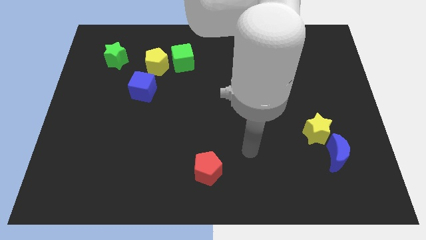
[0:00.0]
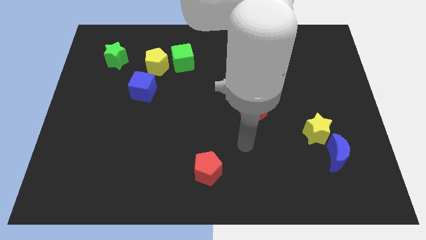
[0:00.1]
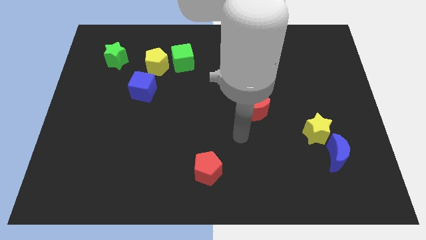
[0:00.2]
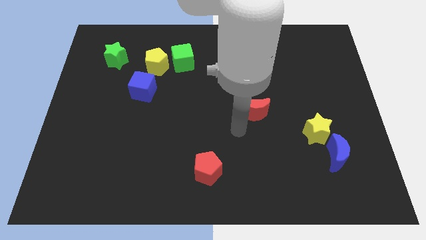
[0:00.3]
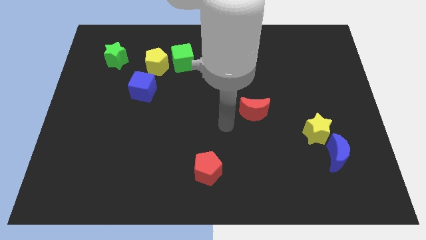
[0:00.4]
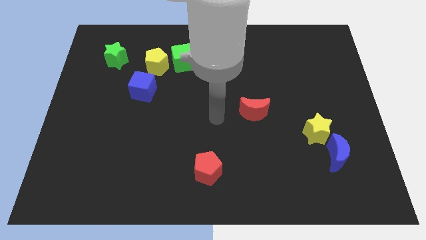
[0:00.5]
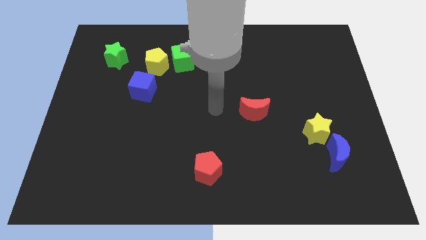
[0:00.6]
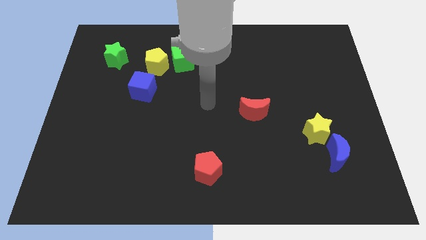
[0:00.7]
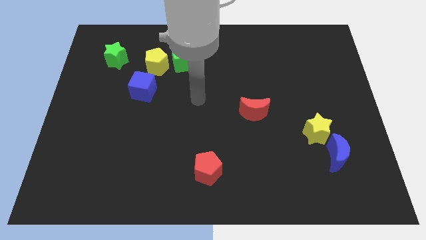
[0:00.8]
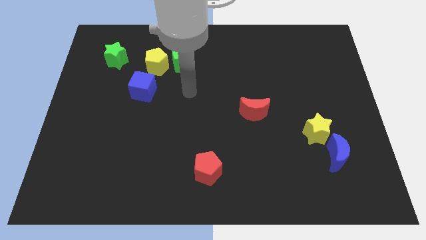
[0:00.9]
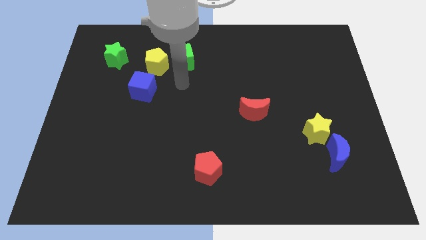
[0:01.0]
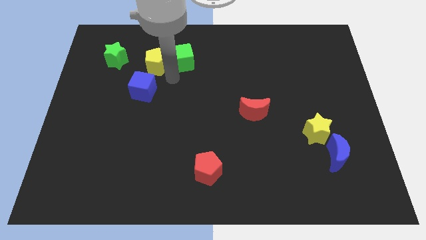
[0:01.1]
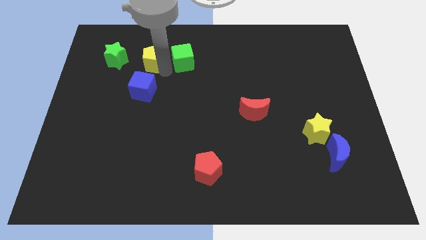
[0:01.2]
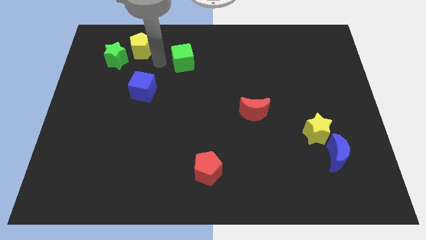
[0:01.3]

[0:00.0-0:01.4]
move the green cube away from the yellow pentagon

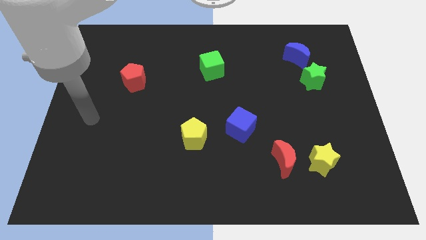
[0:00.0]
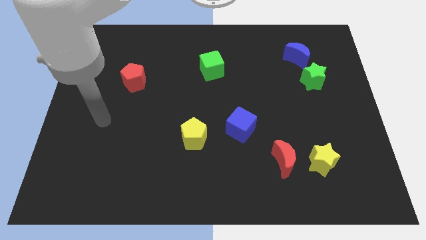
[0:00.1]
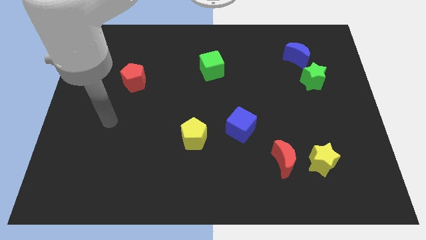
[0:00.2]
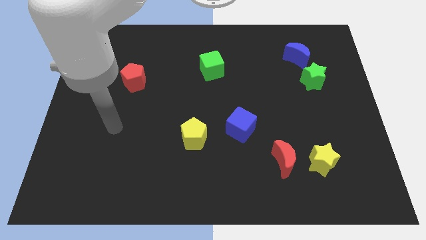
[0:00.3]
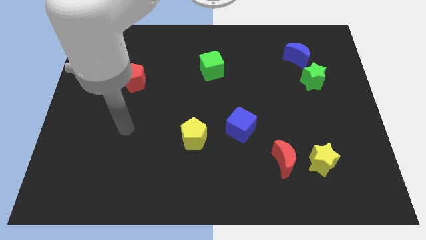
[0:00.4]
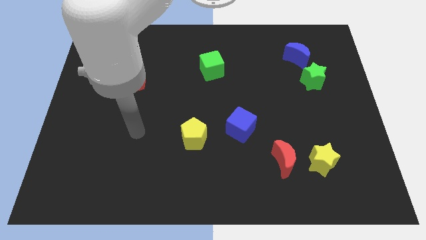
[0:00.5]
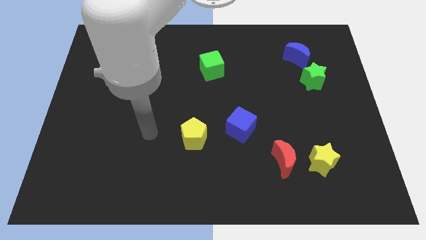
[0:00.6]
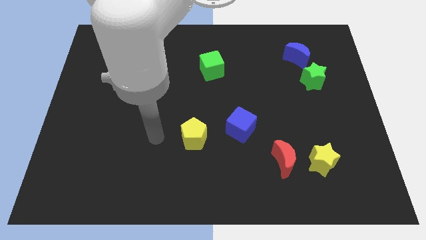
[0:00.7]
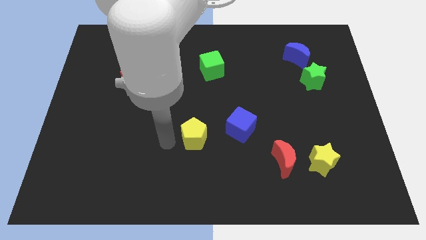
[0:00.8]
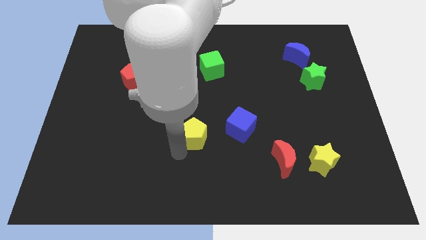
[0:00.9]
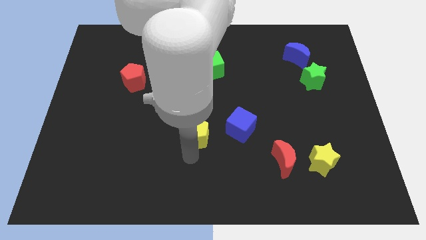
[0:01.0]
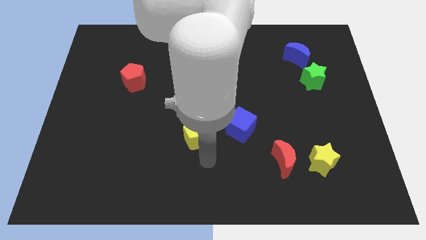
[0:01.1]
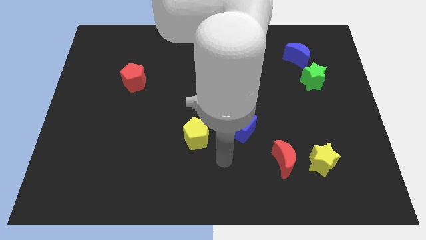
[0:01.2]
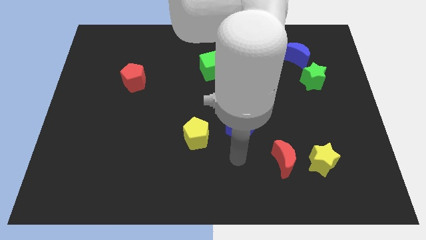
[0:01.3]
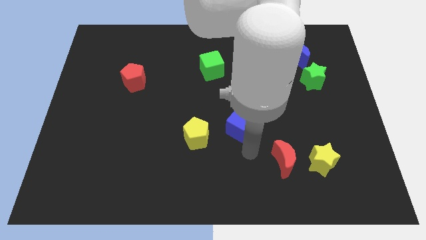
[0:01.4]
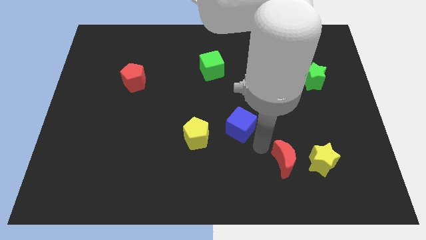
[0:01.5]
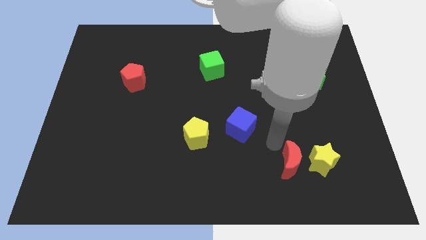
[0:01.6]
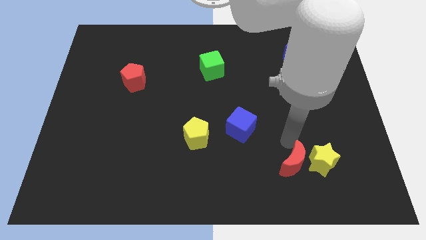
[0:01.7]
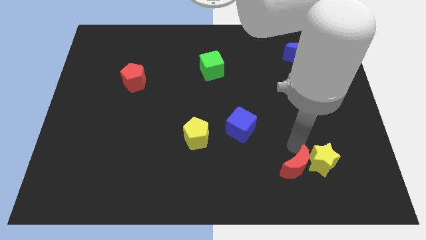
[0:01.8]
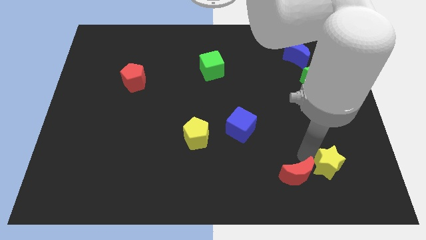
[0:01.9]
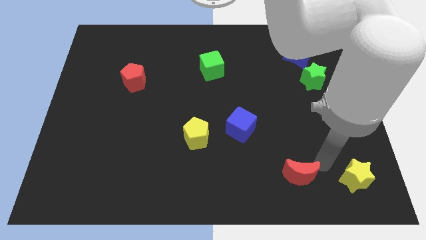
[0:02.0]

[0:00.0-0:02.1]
separate the red moon from the yellow star

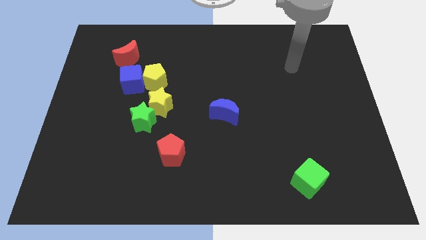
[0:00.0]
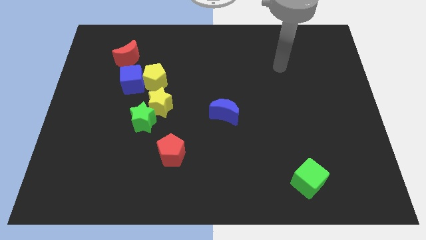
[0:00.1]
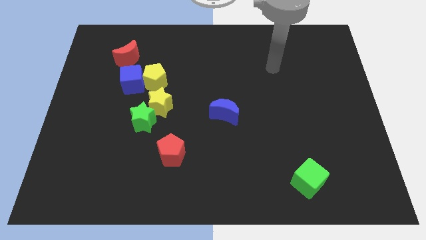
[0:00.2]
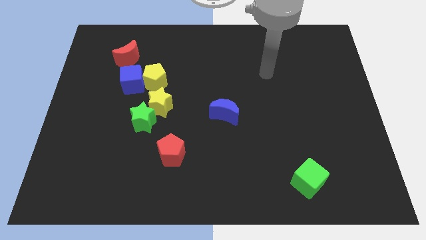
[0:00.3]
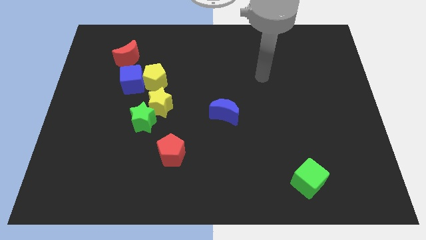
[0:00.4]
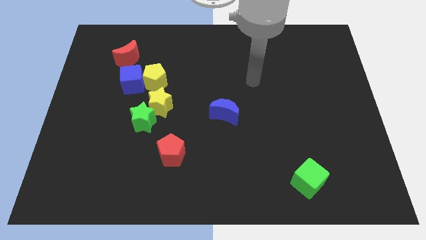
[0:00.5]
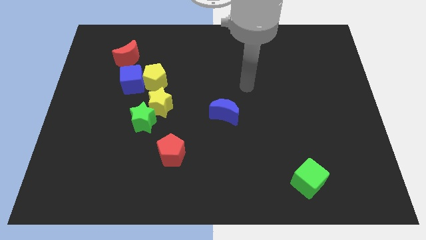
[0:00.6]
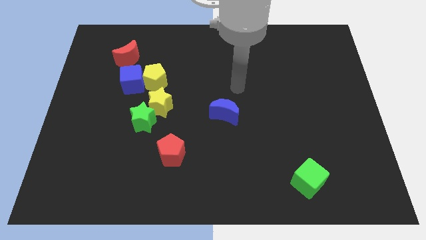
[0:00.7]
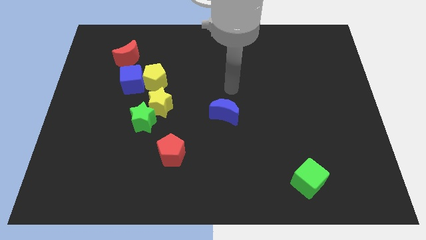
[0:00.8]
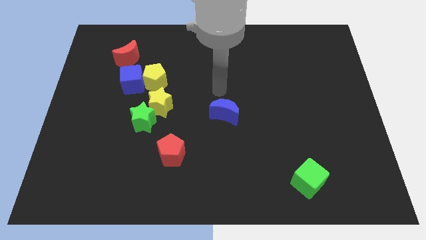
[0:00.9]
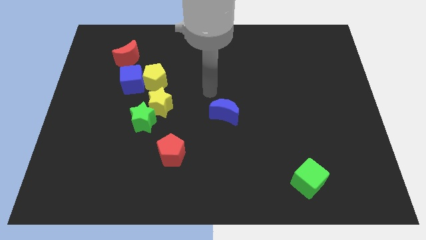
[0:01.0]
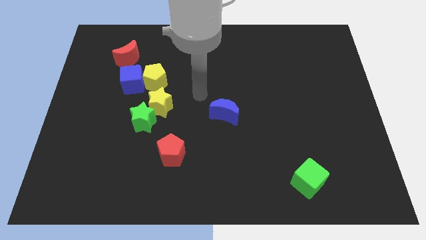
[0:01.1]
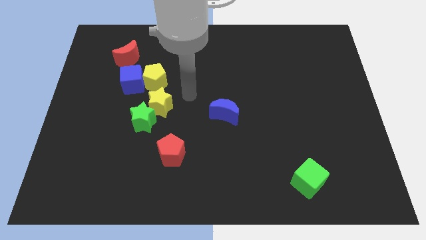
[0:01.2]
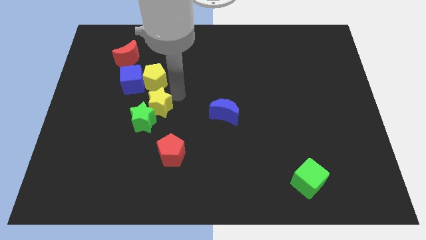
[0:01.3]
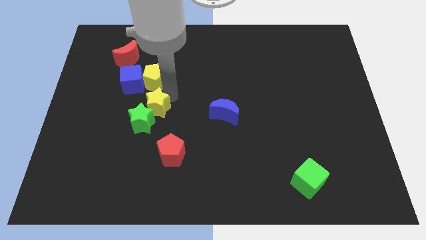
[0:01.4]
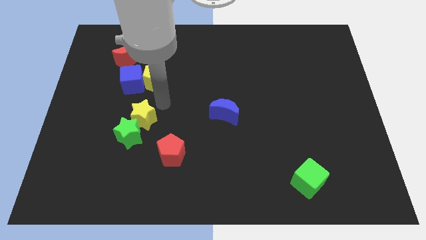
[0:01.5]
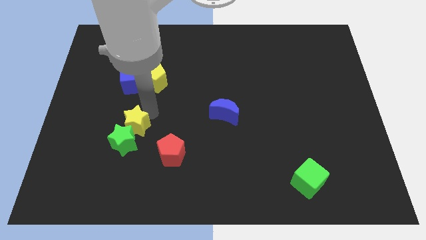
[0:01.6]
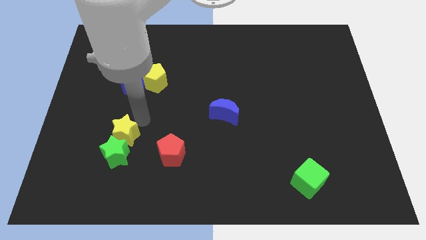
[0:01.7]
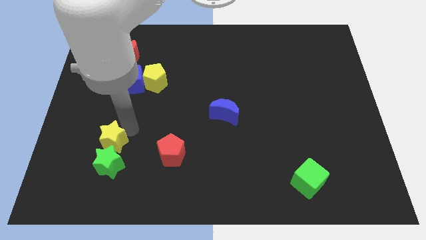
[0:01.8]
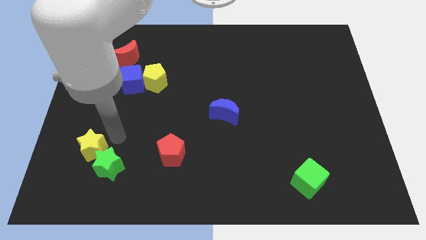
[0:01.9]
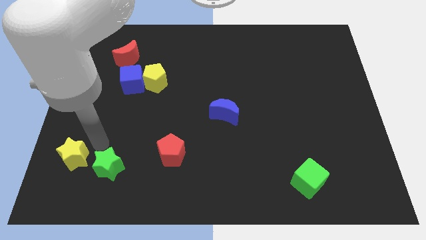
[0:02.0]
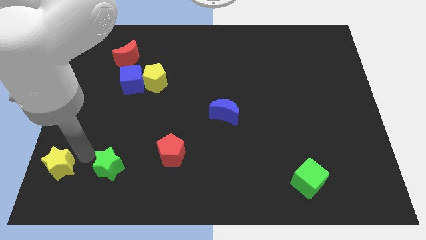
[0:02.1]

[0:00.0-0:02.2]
move the green star away from the yellow star

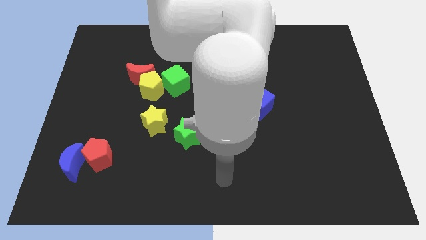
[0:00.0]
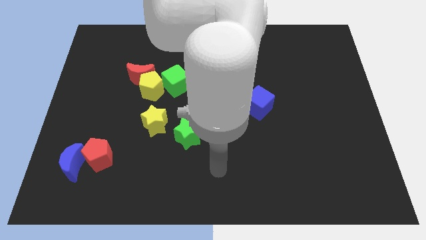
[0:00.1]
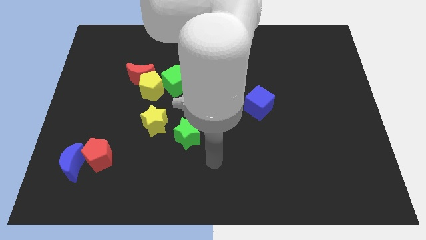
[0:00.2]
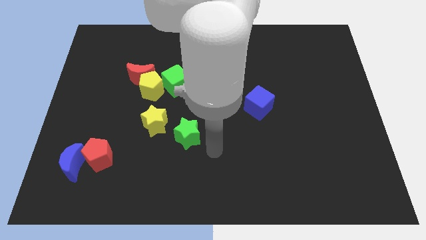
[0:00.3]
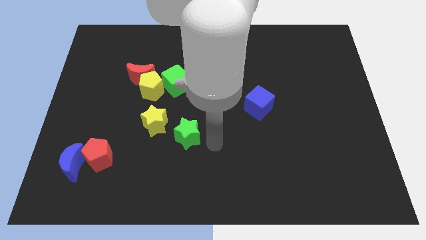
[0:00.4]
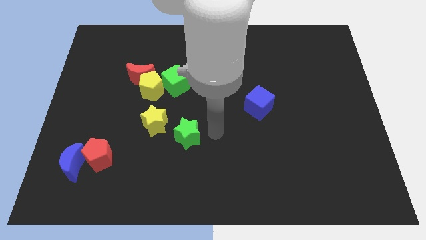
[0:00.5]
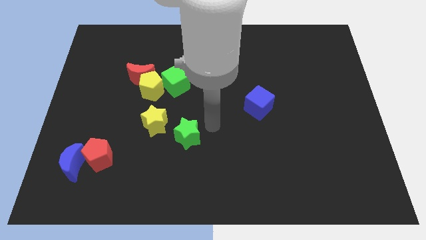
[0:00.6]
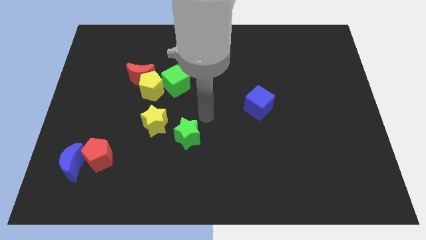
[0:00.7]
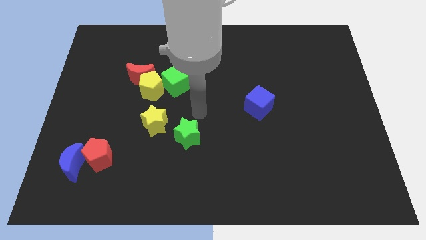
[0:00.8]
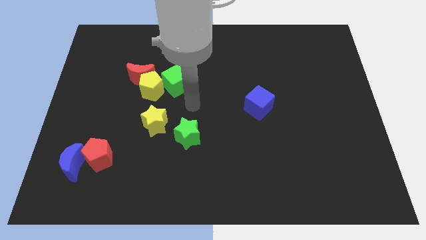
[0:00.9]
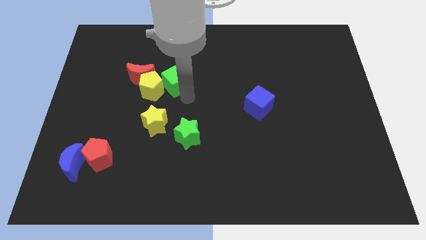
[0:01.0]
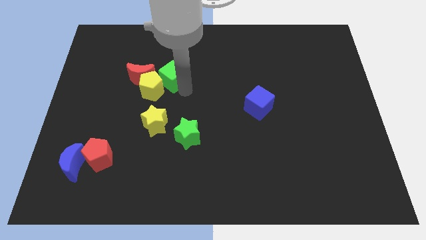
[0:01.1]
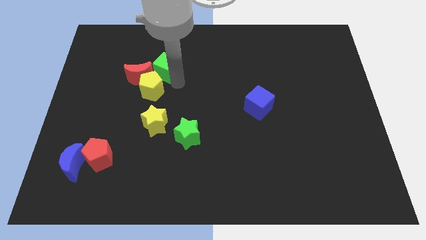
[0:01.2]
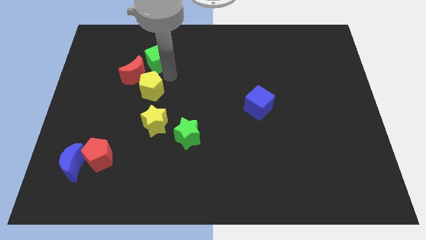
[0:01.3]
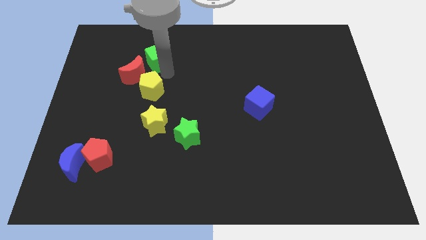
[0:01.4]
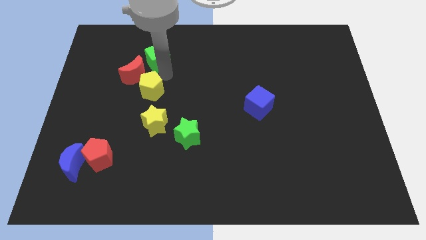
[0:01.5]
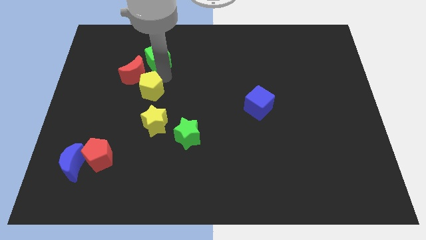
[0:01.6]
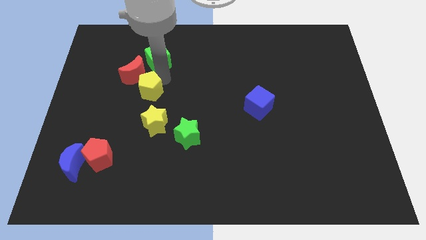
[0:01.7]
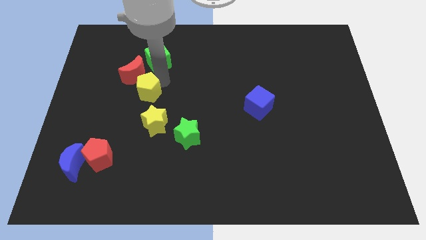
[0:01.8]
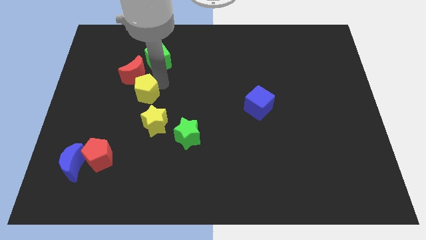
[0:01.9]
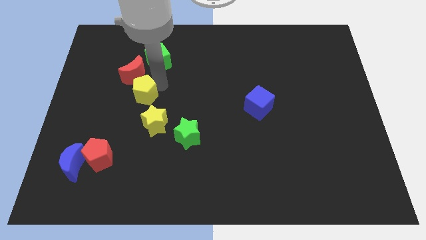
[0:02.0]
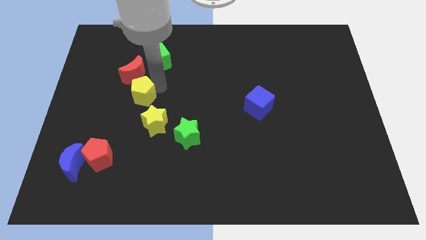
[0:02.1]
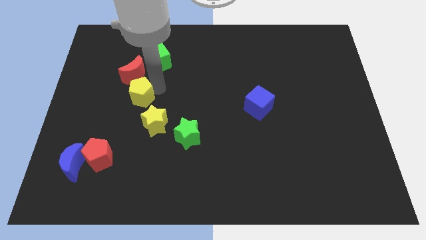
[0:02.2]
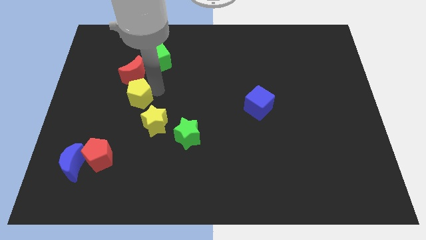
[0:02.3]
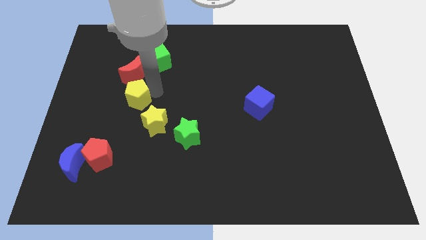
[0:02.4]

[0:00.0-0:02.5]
separate the yellow pentagon from the red moon and green cube

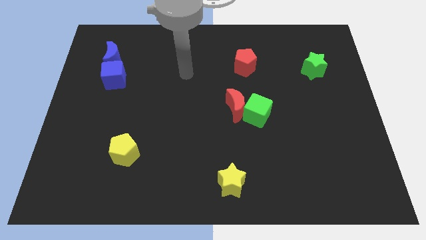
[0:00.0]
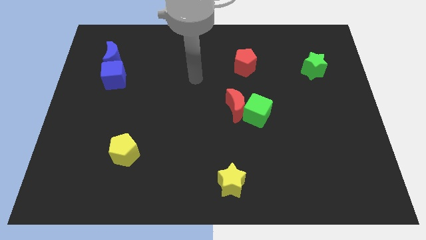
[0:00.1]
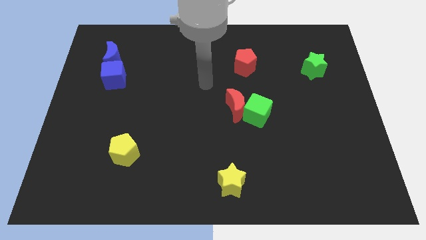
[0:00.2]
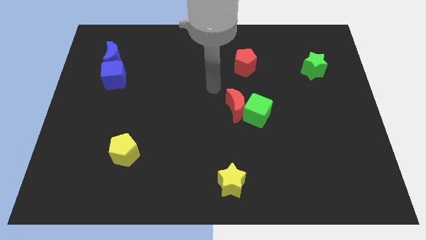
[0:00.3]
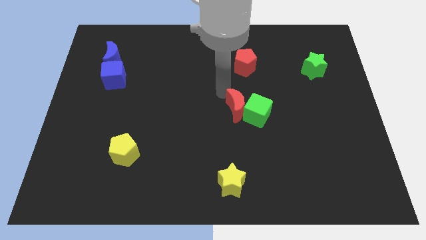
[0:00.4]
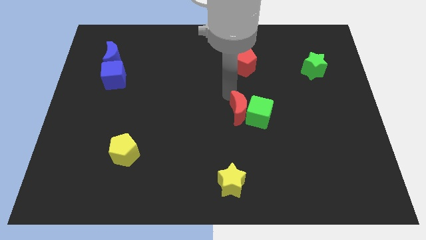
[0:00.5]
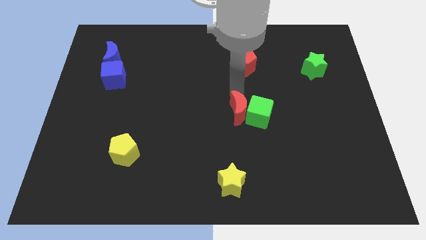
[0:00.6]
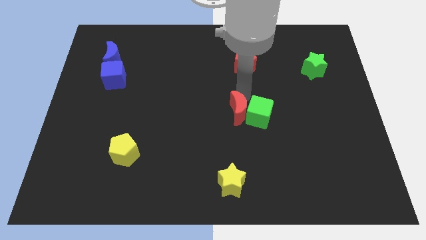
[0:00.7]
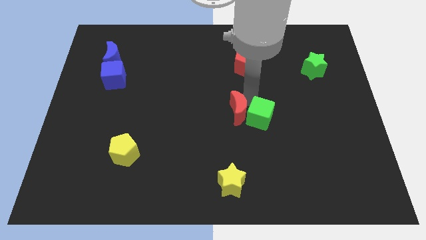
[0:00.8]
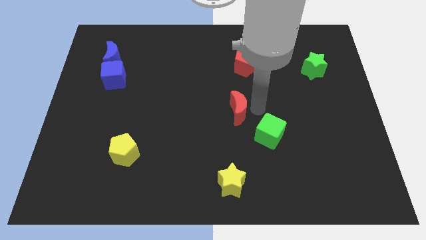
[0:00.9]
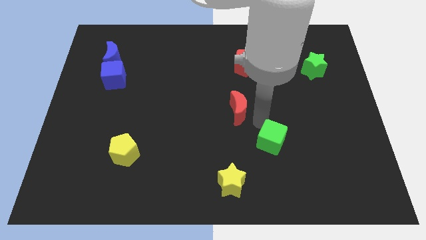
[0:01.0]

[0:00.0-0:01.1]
move the red moon away from the green cube

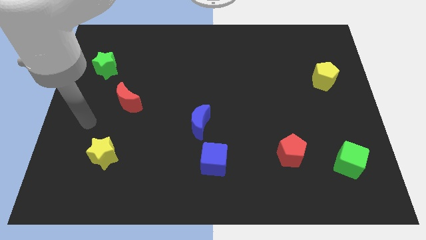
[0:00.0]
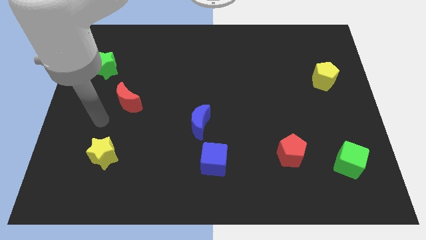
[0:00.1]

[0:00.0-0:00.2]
separate the blue moon from the blue cube
